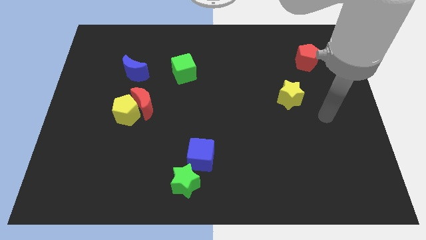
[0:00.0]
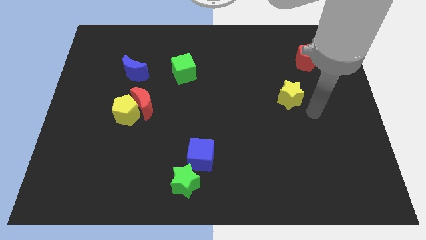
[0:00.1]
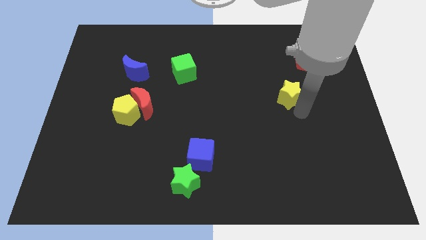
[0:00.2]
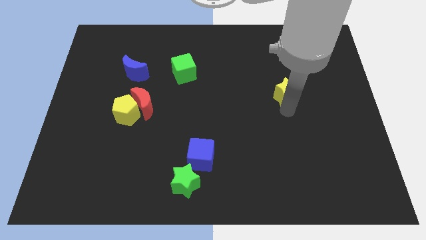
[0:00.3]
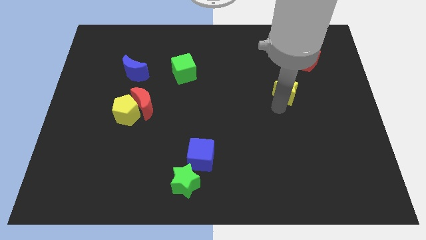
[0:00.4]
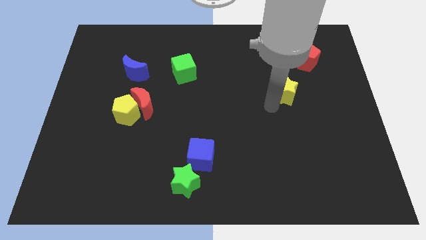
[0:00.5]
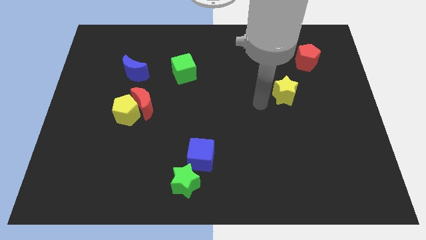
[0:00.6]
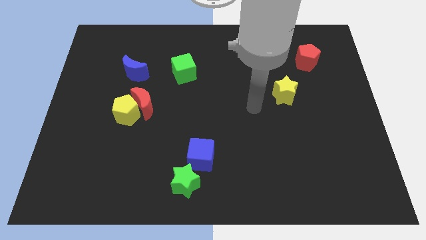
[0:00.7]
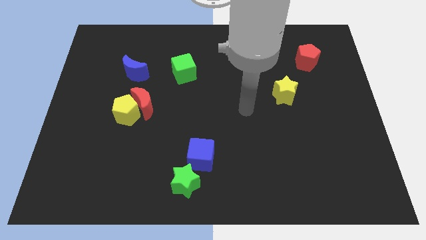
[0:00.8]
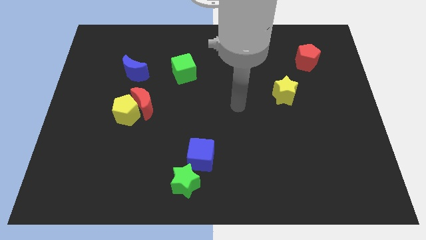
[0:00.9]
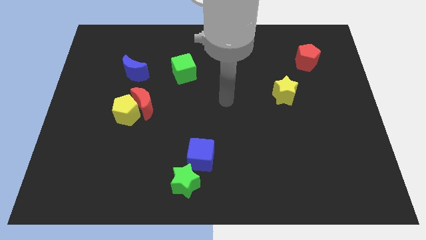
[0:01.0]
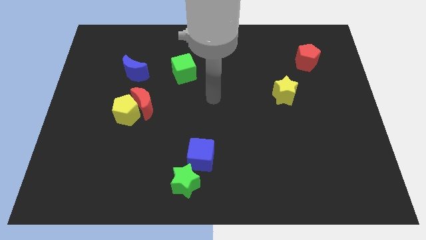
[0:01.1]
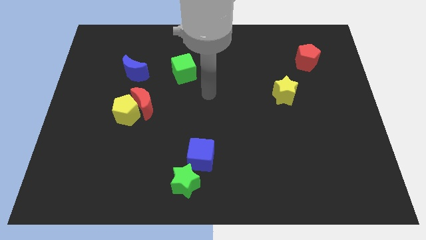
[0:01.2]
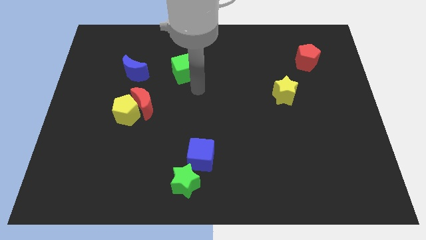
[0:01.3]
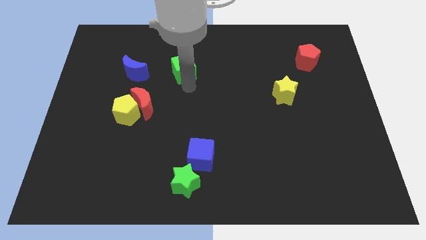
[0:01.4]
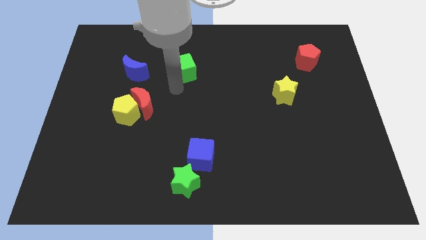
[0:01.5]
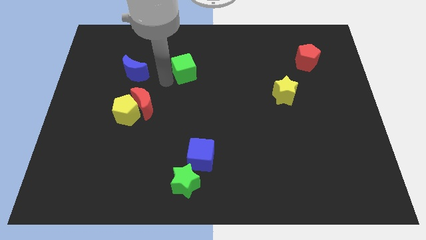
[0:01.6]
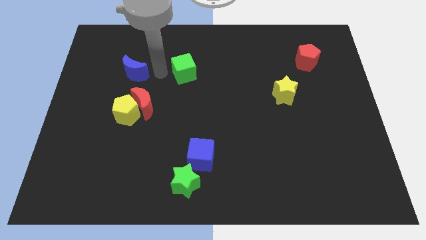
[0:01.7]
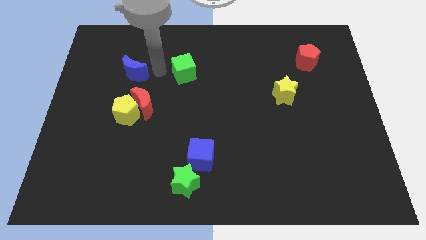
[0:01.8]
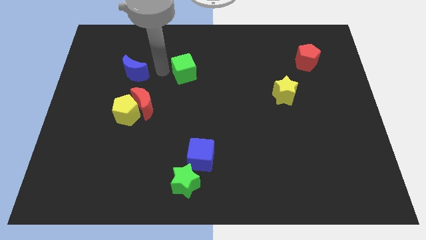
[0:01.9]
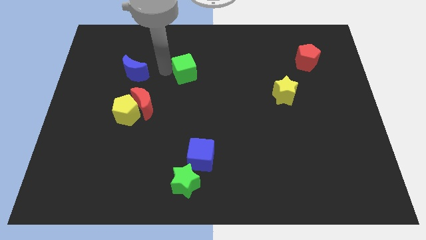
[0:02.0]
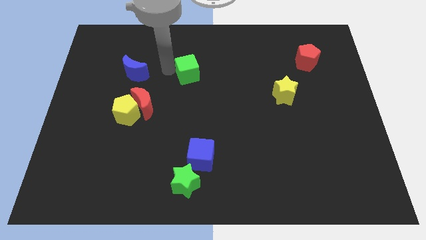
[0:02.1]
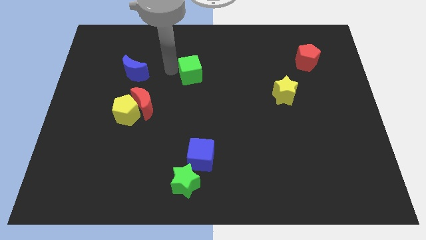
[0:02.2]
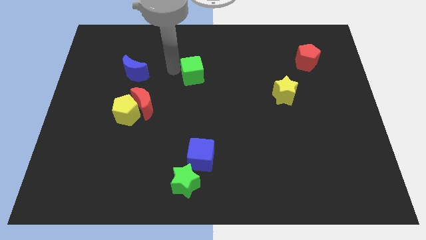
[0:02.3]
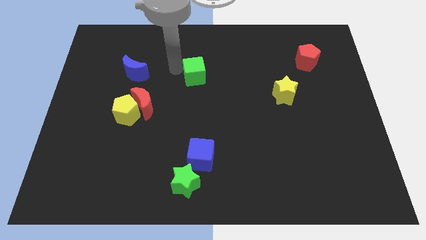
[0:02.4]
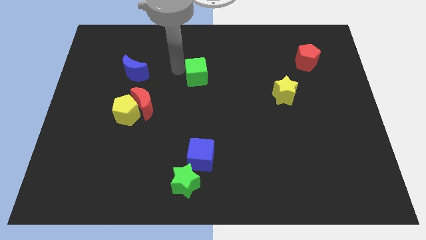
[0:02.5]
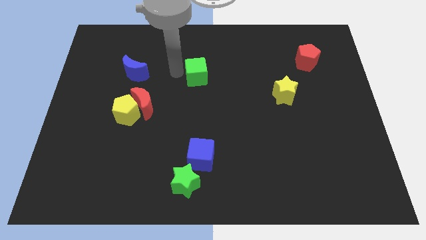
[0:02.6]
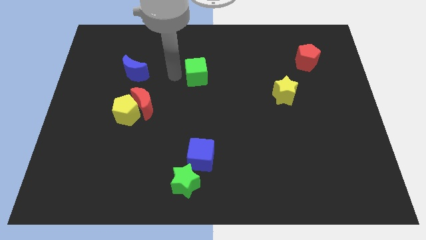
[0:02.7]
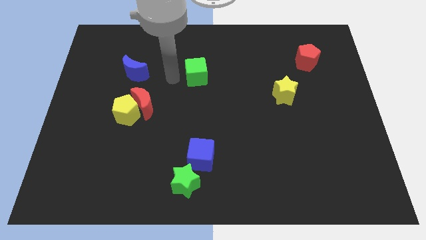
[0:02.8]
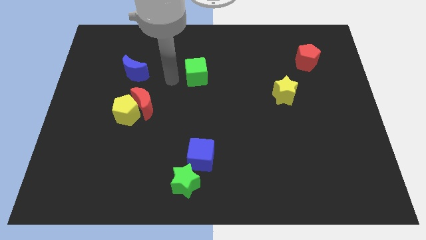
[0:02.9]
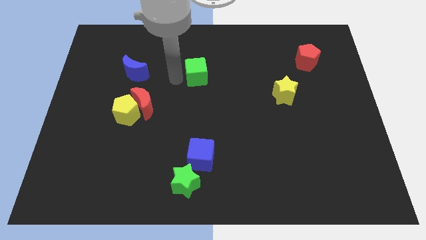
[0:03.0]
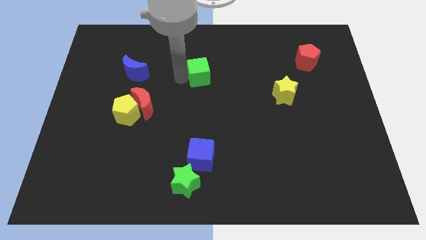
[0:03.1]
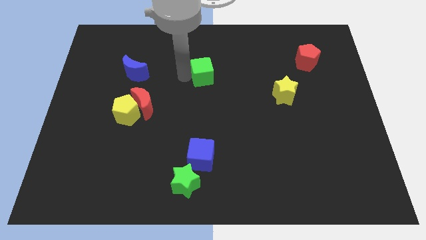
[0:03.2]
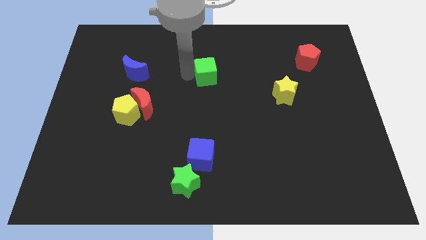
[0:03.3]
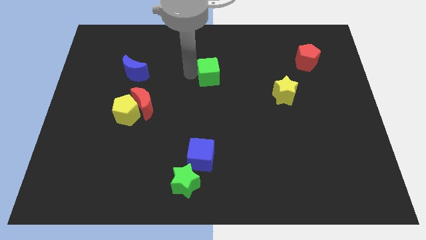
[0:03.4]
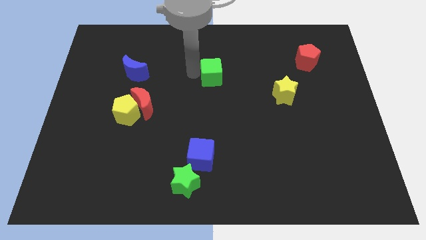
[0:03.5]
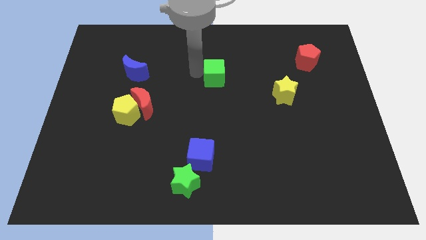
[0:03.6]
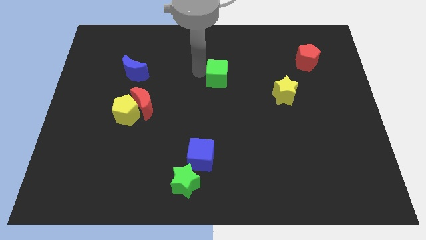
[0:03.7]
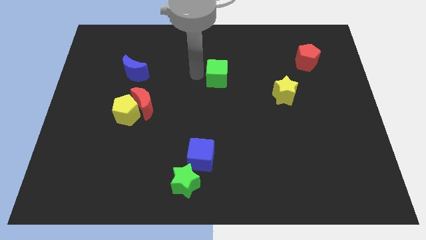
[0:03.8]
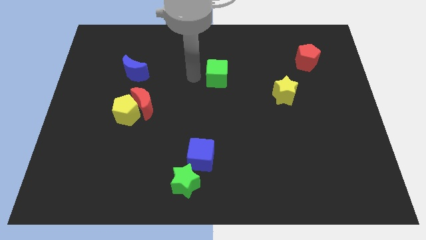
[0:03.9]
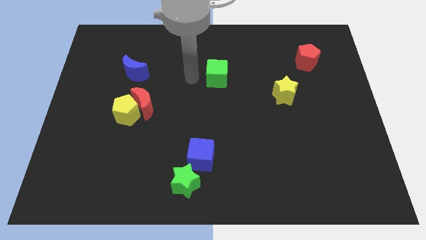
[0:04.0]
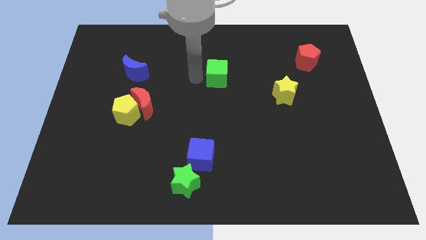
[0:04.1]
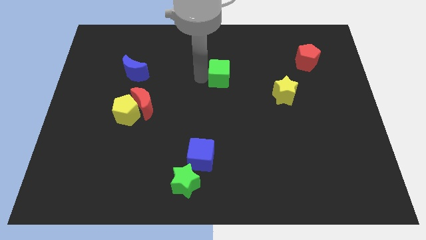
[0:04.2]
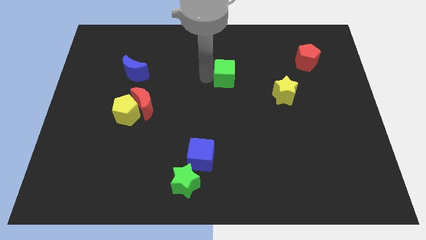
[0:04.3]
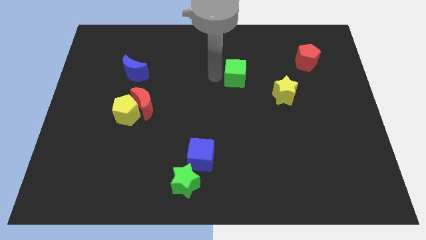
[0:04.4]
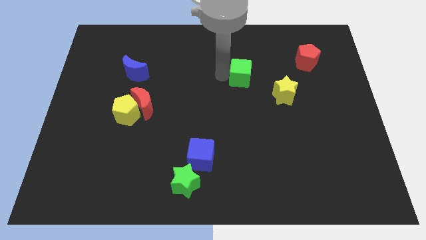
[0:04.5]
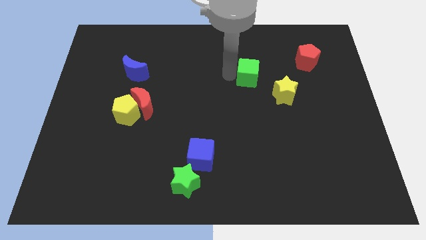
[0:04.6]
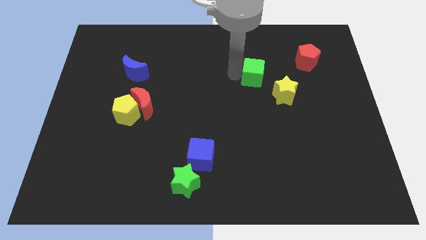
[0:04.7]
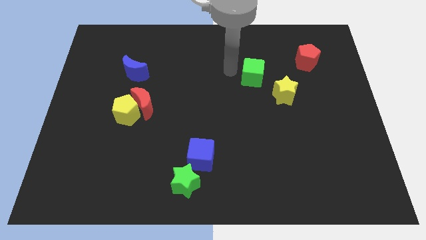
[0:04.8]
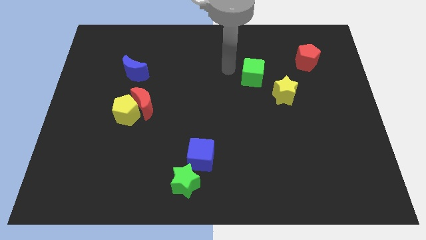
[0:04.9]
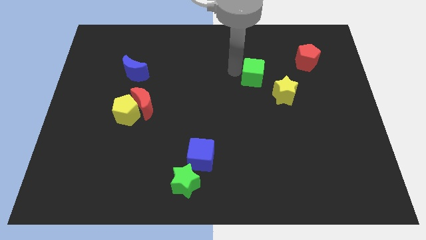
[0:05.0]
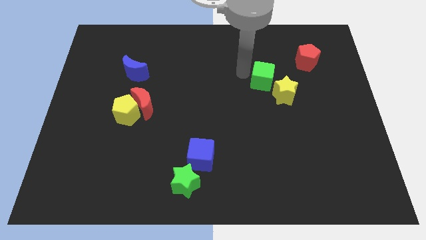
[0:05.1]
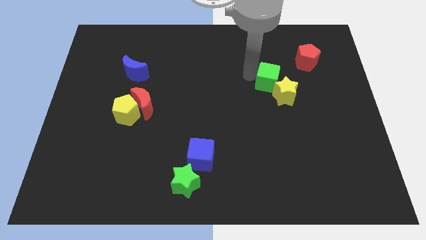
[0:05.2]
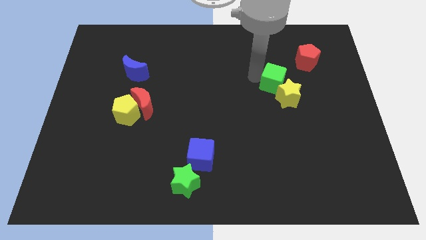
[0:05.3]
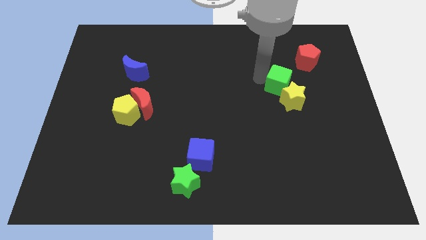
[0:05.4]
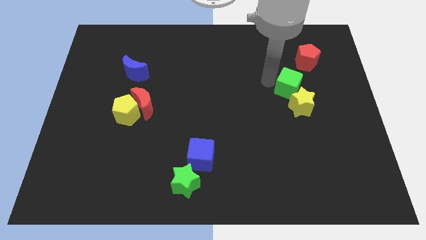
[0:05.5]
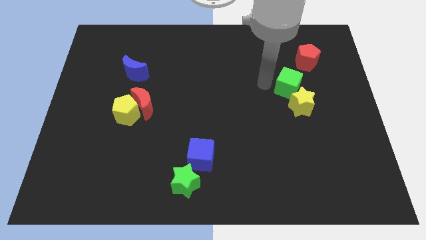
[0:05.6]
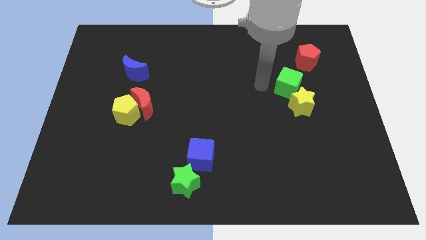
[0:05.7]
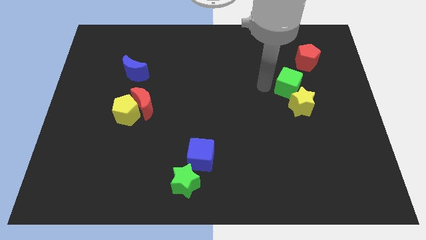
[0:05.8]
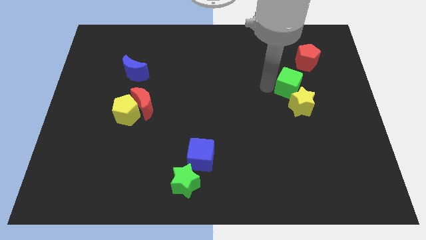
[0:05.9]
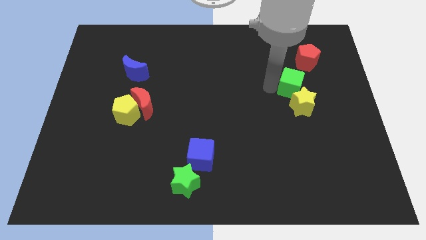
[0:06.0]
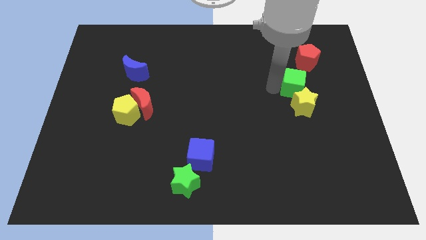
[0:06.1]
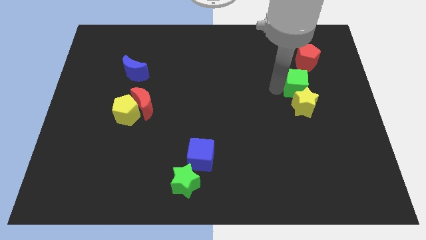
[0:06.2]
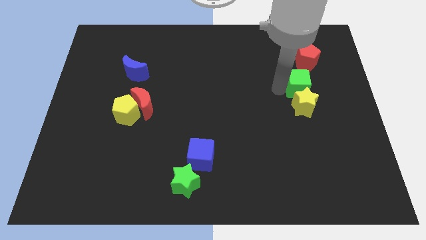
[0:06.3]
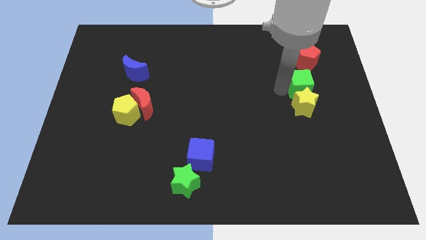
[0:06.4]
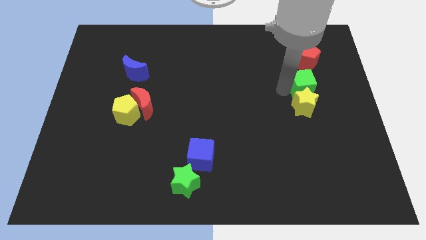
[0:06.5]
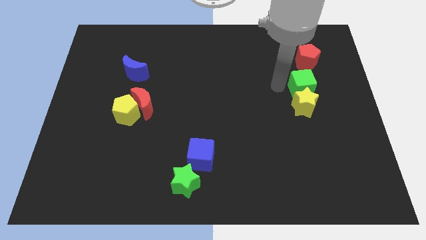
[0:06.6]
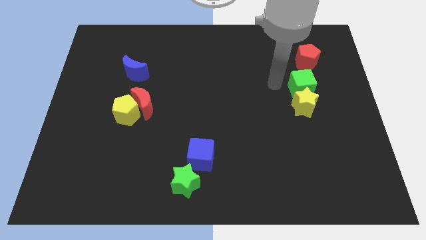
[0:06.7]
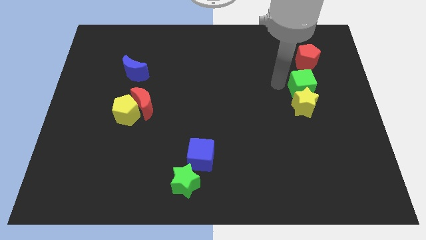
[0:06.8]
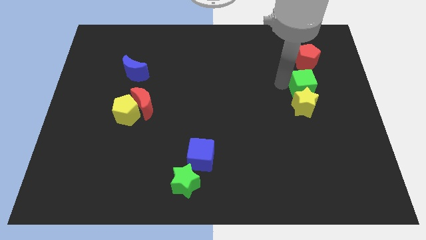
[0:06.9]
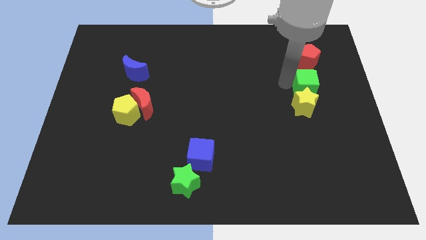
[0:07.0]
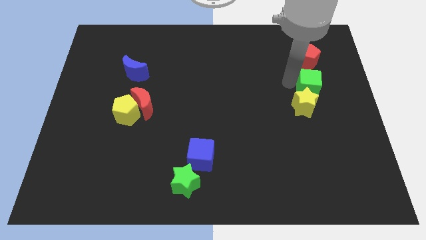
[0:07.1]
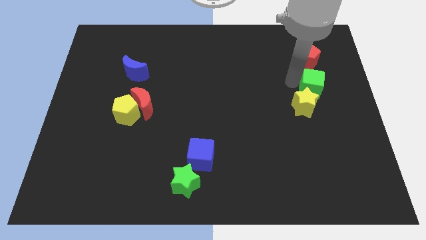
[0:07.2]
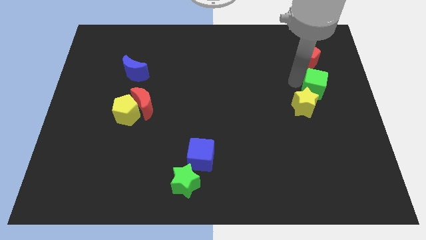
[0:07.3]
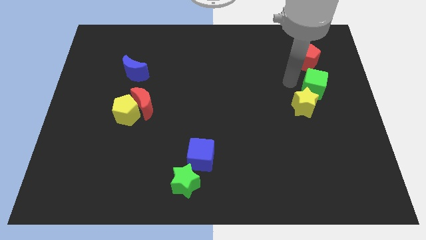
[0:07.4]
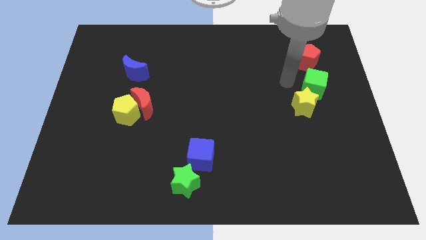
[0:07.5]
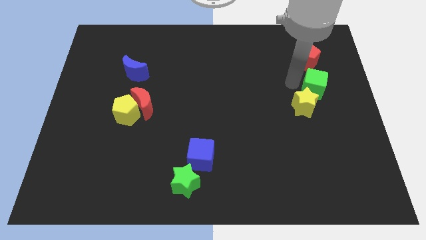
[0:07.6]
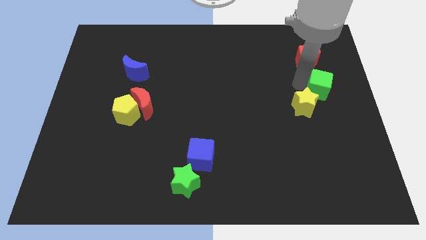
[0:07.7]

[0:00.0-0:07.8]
move the green cube to the center right
